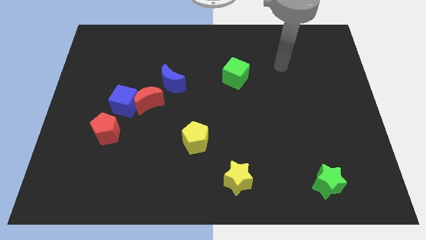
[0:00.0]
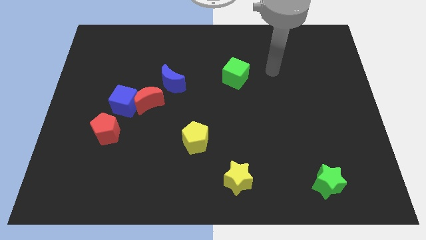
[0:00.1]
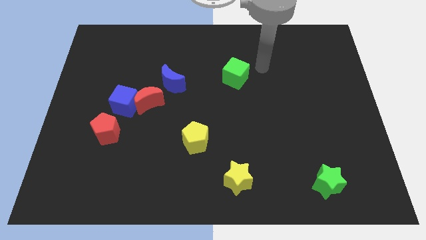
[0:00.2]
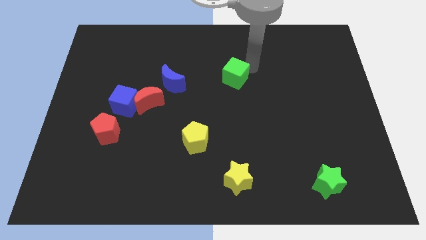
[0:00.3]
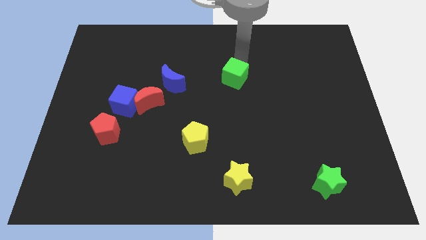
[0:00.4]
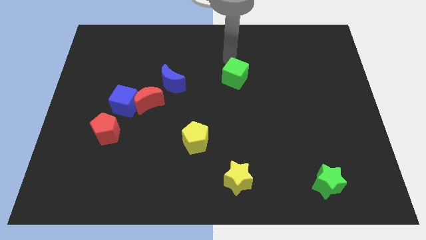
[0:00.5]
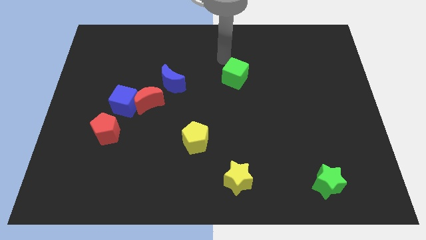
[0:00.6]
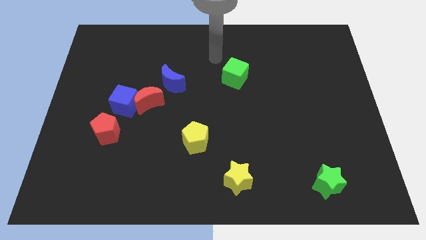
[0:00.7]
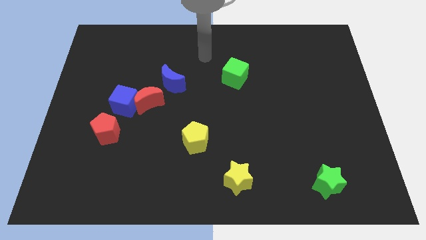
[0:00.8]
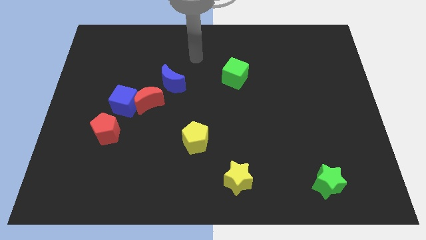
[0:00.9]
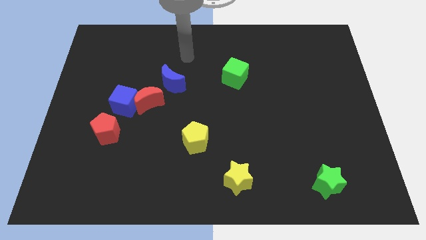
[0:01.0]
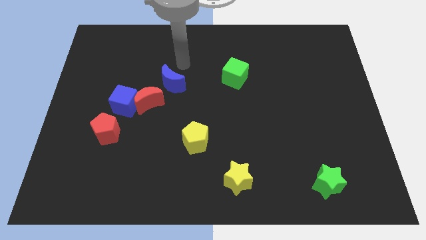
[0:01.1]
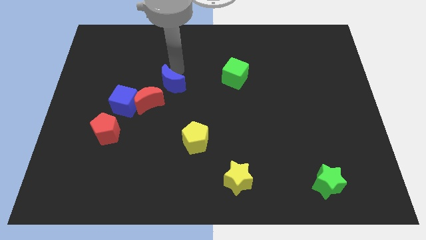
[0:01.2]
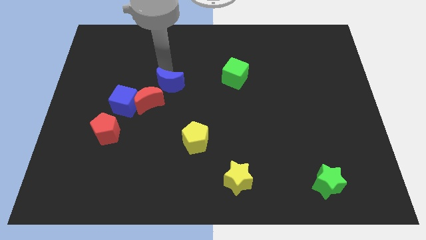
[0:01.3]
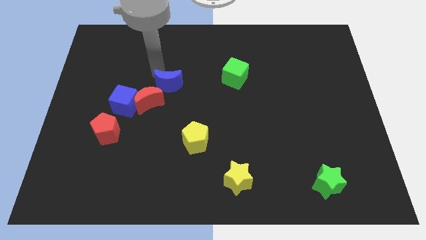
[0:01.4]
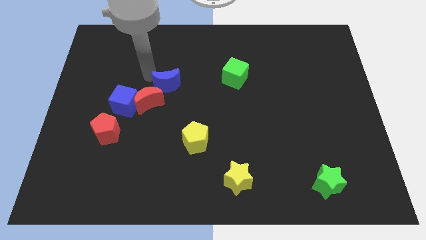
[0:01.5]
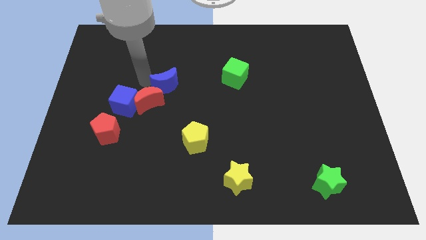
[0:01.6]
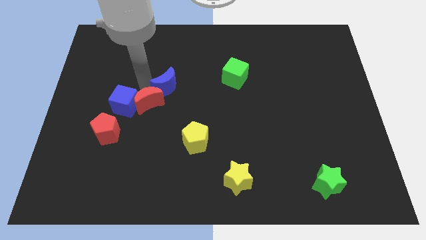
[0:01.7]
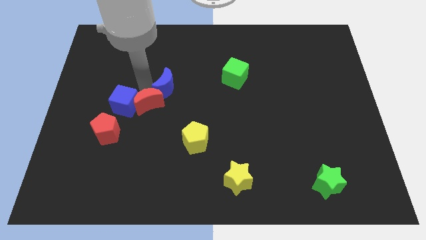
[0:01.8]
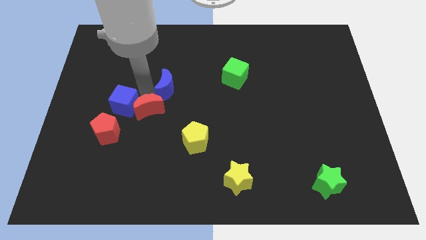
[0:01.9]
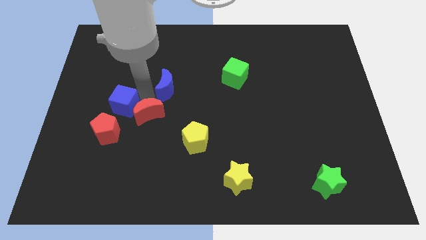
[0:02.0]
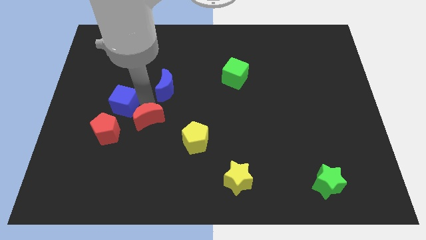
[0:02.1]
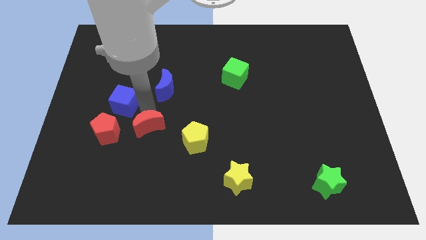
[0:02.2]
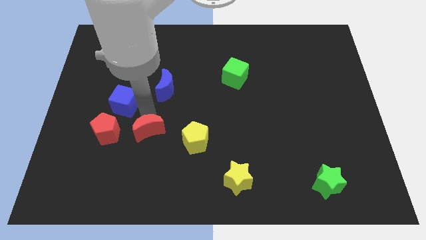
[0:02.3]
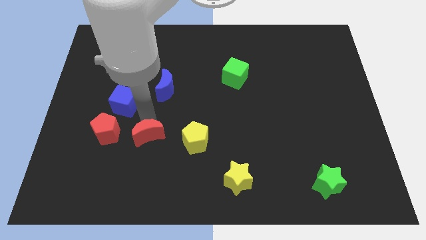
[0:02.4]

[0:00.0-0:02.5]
pull the red moon apart from the blue cube and blue moon

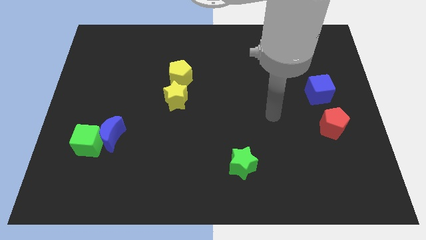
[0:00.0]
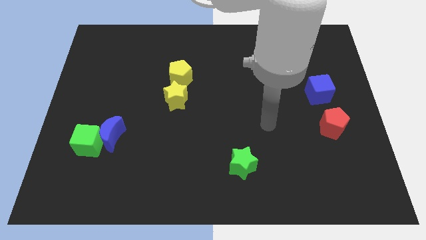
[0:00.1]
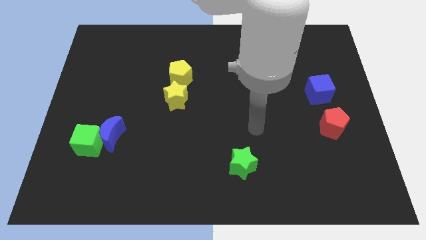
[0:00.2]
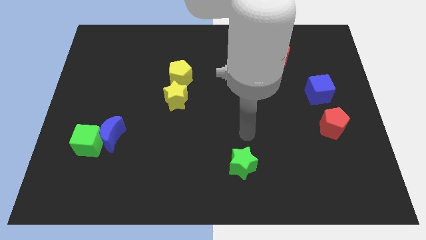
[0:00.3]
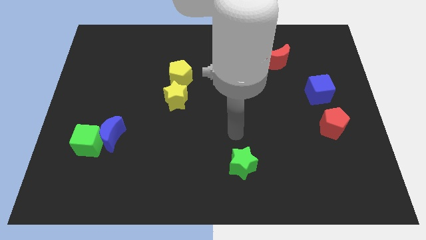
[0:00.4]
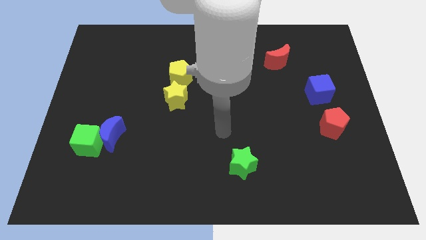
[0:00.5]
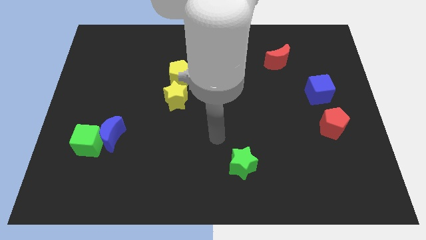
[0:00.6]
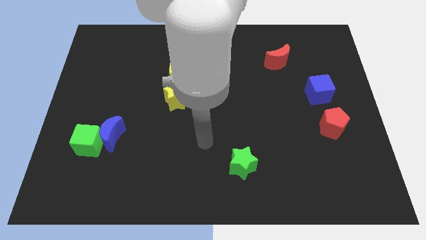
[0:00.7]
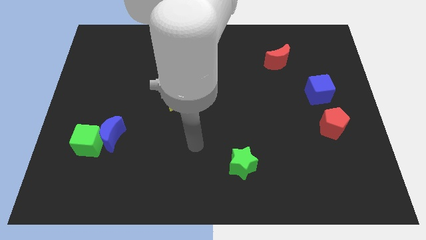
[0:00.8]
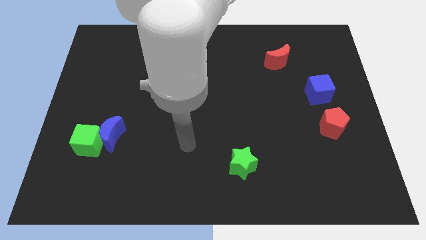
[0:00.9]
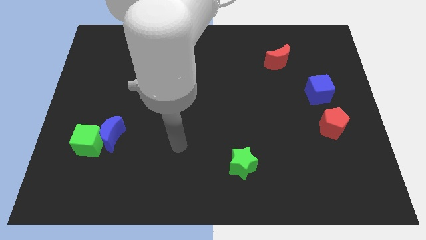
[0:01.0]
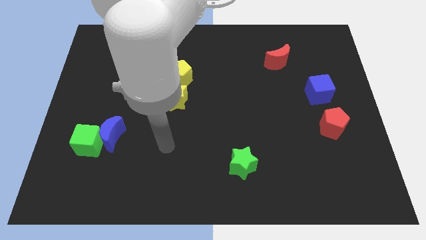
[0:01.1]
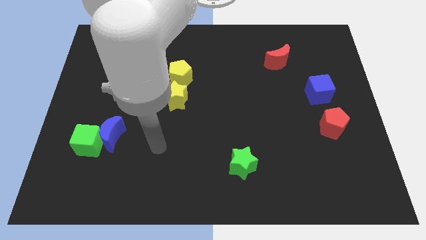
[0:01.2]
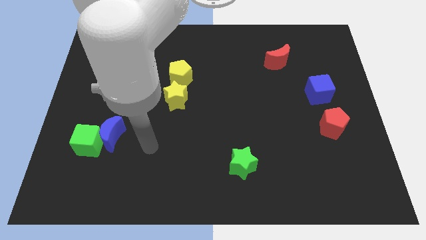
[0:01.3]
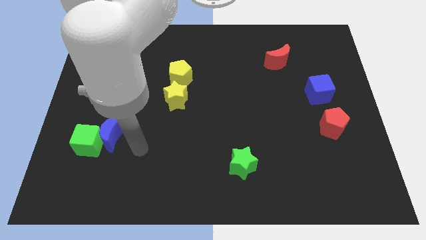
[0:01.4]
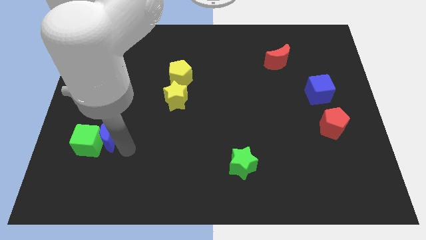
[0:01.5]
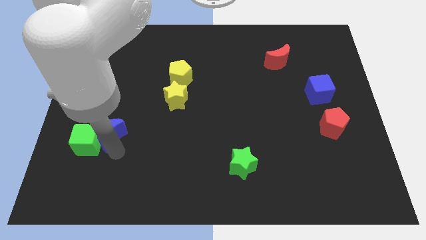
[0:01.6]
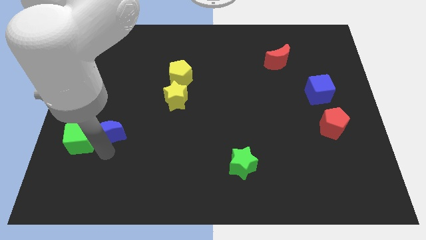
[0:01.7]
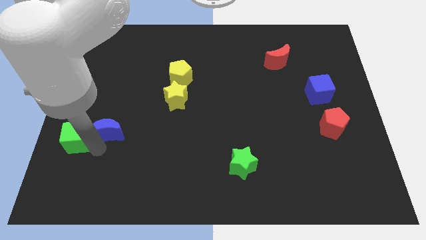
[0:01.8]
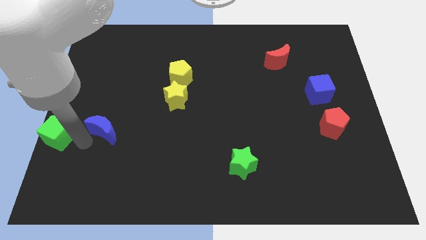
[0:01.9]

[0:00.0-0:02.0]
pull the blue moon apart from the green cube

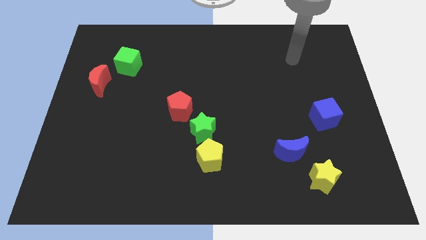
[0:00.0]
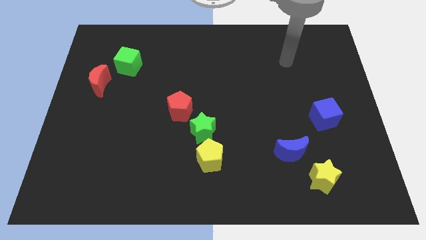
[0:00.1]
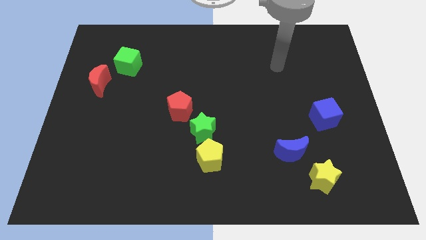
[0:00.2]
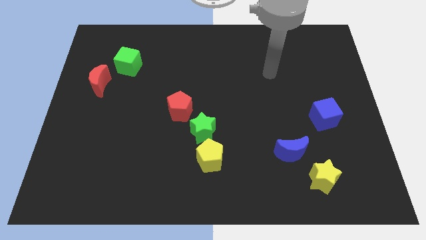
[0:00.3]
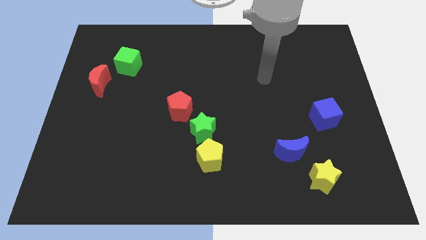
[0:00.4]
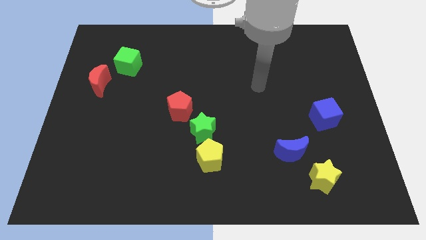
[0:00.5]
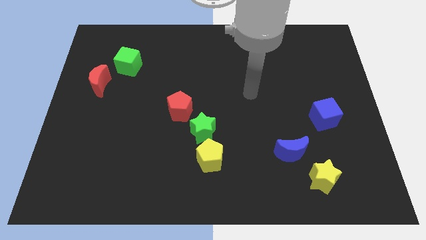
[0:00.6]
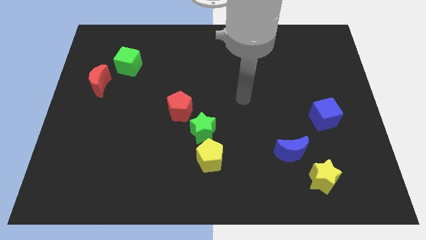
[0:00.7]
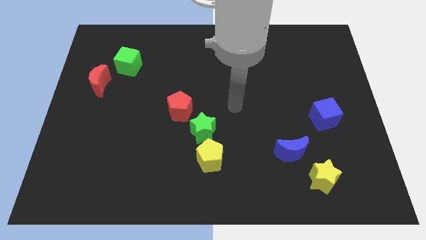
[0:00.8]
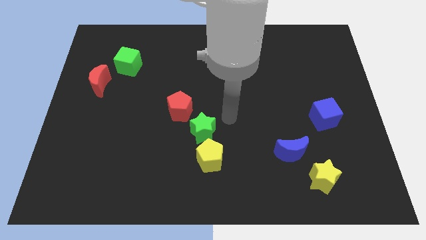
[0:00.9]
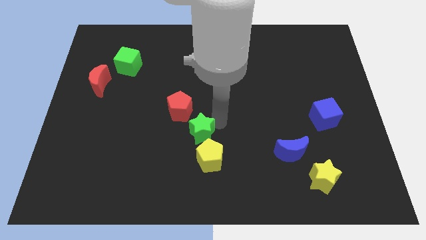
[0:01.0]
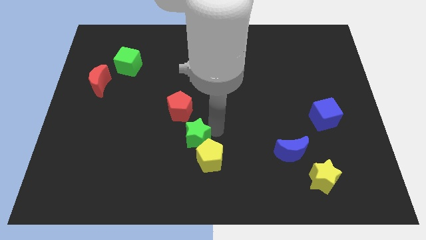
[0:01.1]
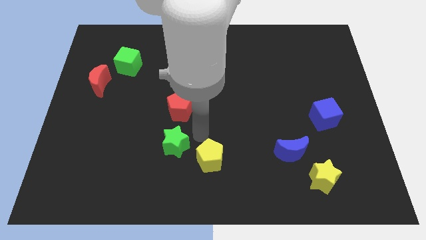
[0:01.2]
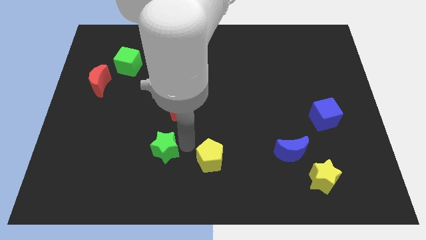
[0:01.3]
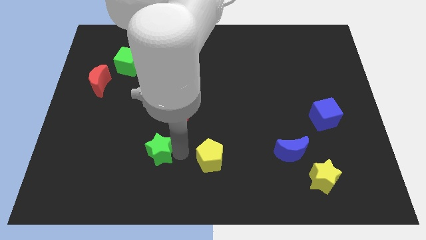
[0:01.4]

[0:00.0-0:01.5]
move the yellow pentagon away from the green star

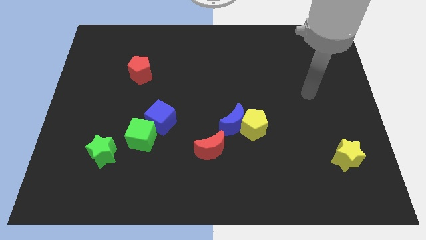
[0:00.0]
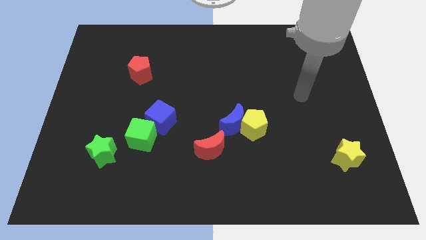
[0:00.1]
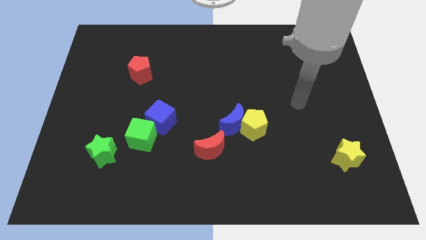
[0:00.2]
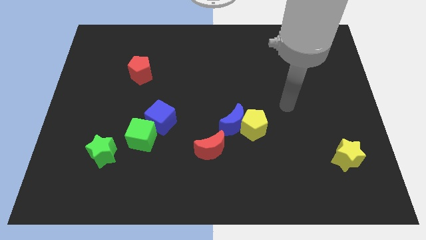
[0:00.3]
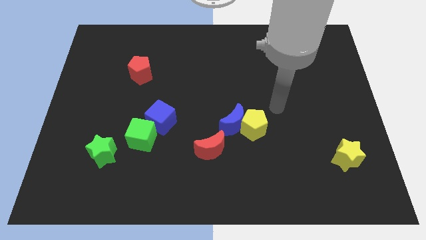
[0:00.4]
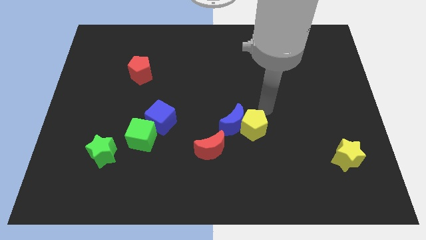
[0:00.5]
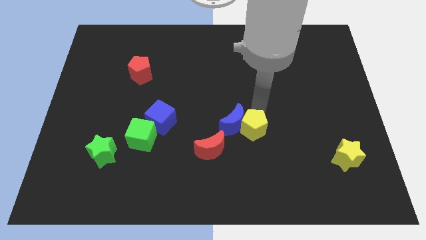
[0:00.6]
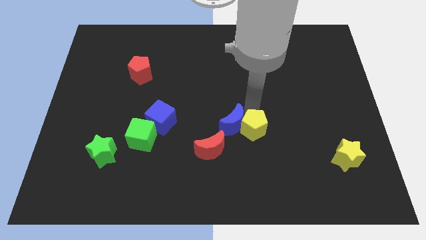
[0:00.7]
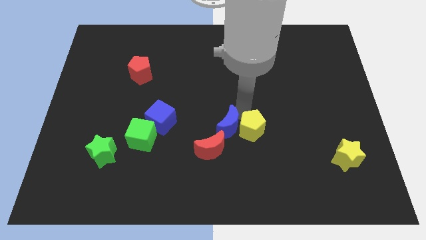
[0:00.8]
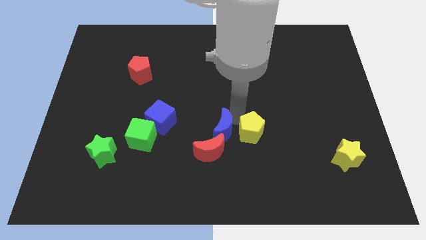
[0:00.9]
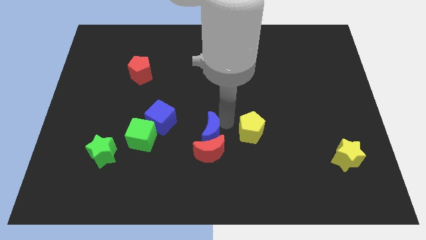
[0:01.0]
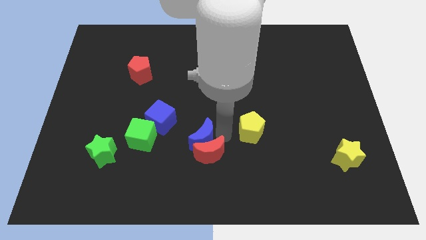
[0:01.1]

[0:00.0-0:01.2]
pull the yellow pentagon apart from the blue moon

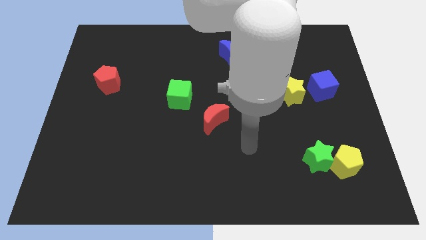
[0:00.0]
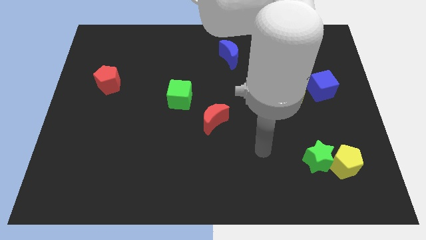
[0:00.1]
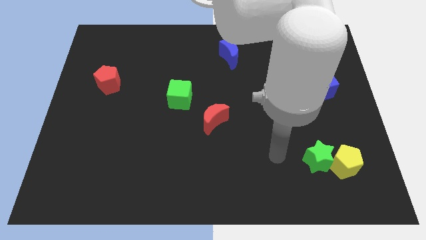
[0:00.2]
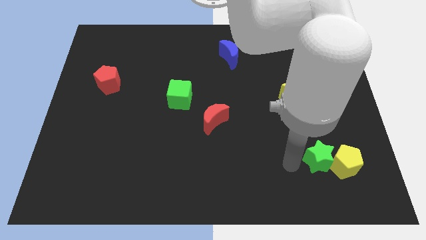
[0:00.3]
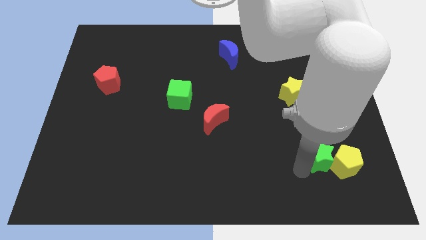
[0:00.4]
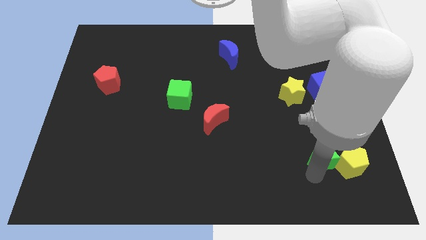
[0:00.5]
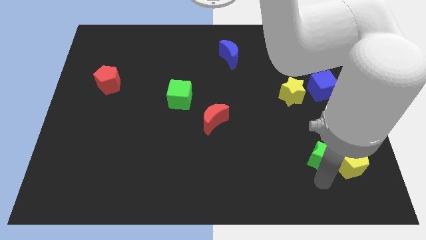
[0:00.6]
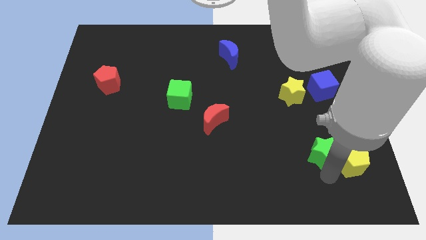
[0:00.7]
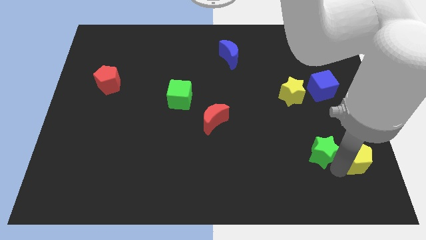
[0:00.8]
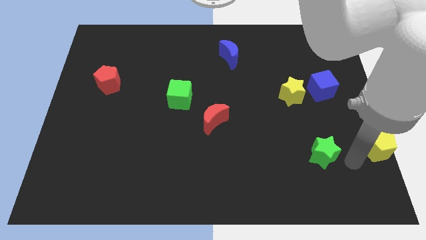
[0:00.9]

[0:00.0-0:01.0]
pull the green star apart from the yellow pentagon

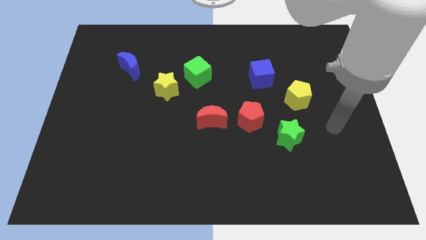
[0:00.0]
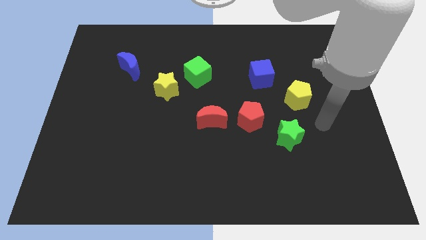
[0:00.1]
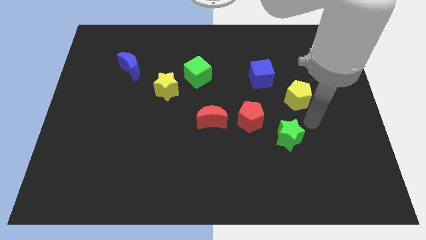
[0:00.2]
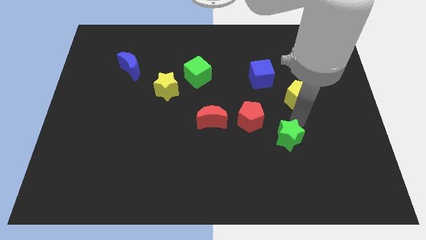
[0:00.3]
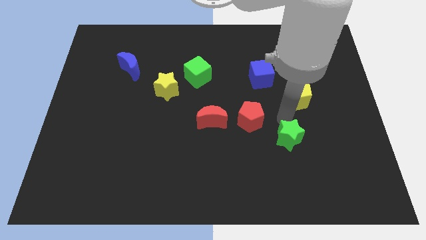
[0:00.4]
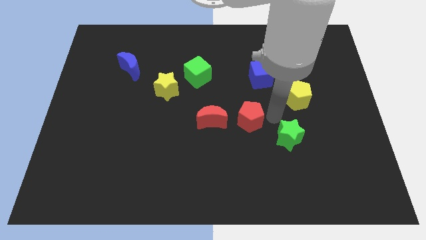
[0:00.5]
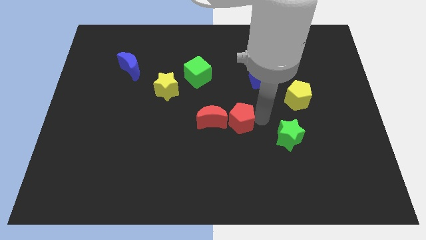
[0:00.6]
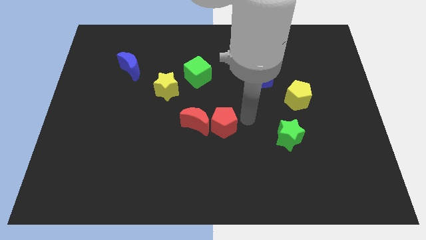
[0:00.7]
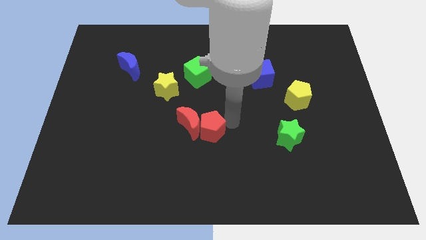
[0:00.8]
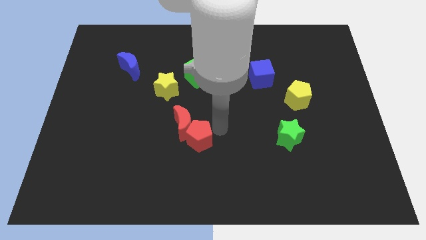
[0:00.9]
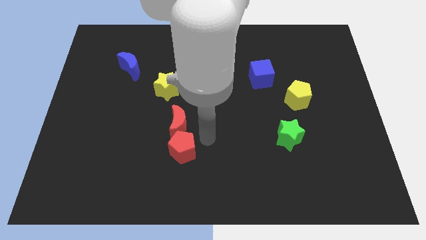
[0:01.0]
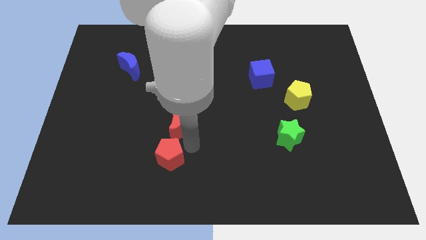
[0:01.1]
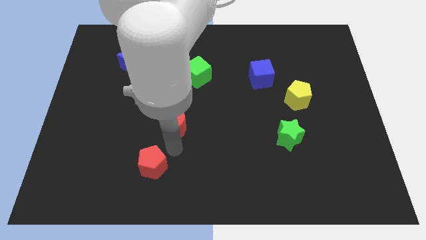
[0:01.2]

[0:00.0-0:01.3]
pull the red moon apart from the red pentagon

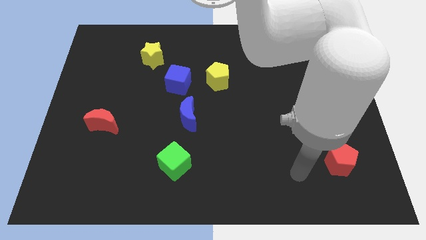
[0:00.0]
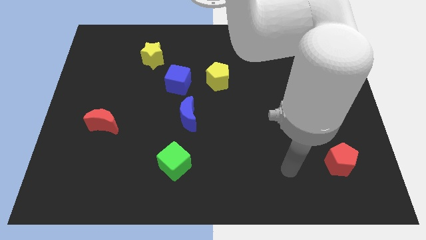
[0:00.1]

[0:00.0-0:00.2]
separate the blue cube from the yellow pentagon
